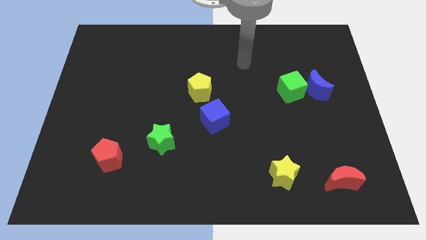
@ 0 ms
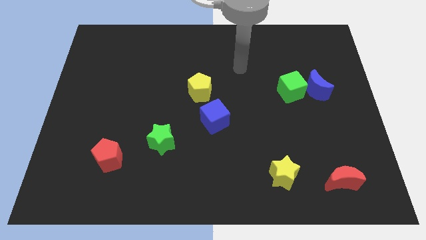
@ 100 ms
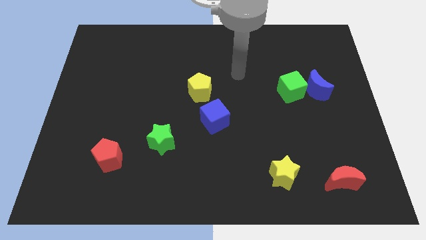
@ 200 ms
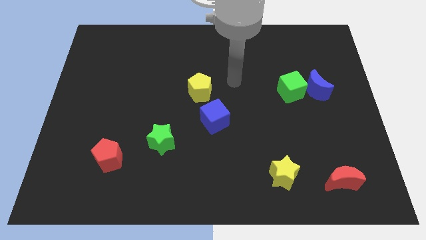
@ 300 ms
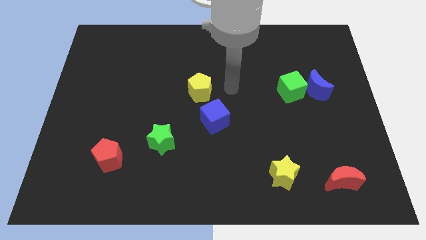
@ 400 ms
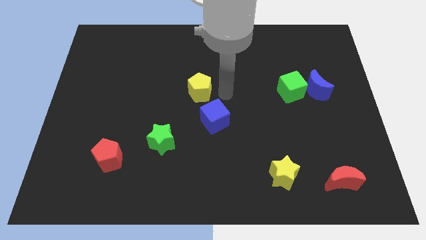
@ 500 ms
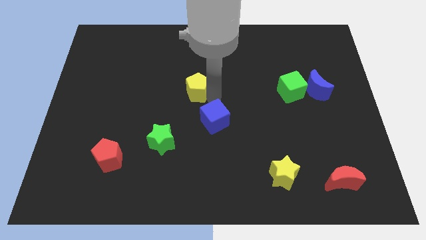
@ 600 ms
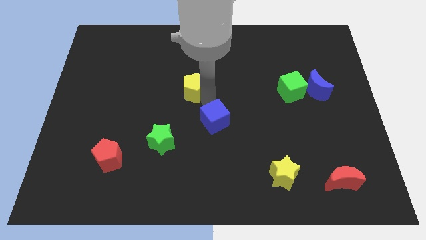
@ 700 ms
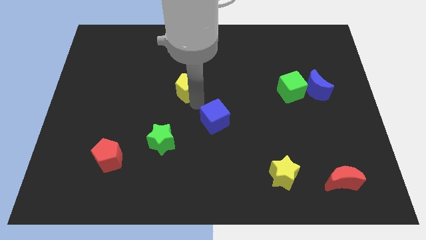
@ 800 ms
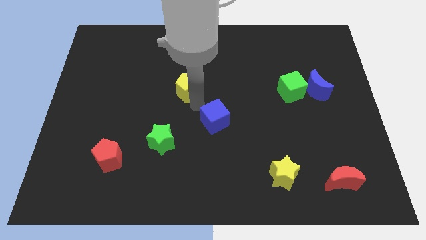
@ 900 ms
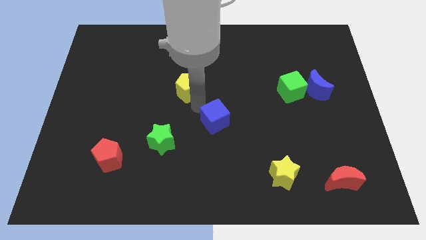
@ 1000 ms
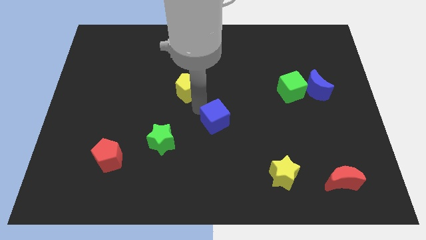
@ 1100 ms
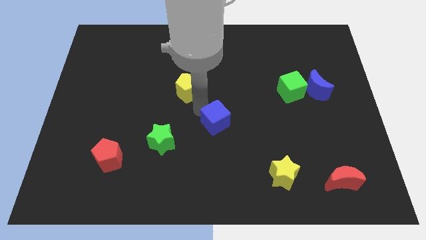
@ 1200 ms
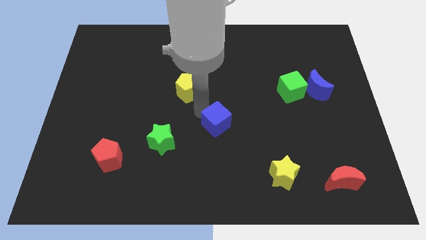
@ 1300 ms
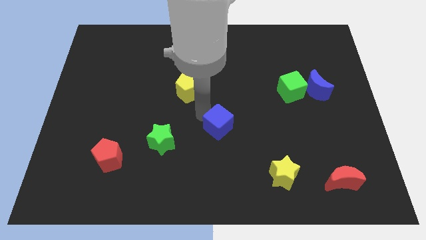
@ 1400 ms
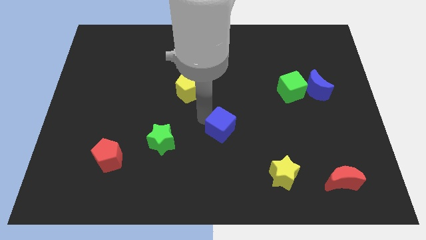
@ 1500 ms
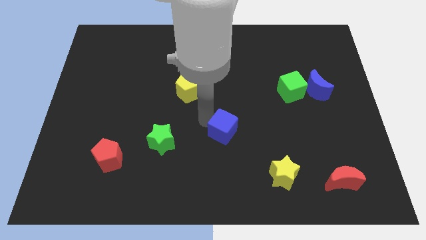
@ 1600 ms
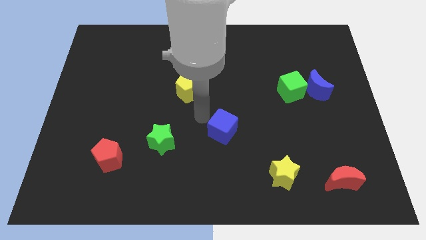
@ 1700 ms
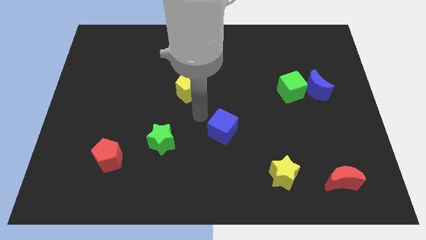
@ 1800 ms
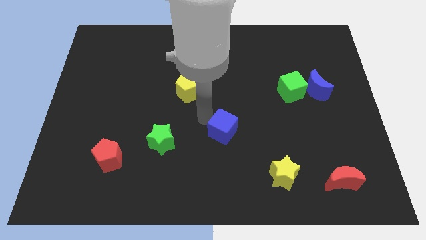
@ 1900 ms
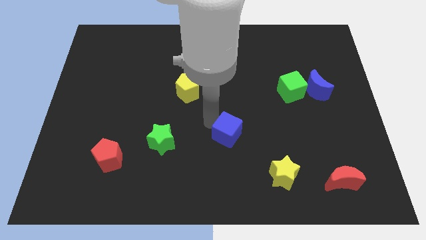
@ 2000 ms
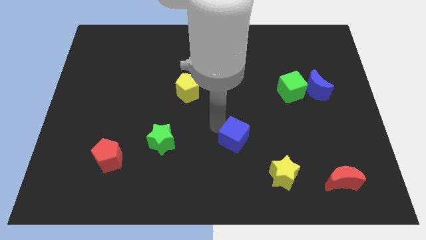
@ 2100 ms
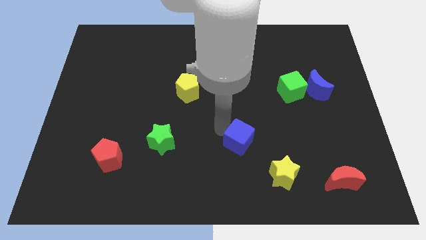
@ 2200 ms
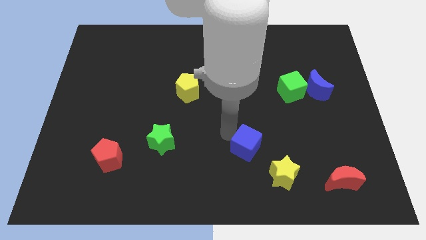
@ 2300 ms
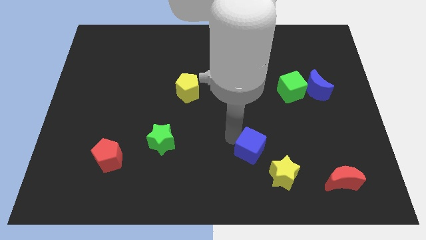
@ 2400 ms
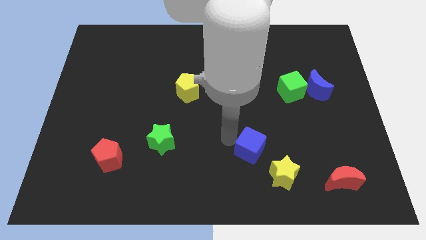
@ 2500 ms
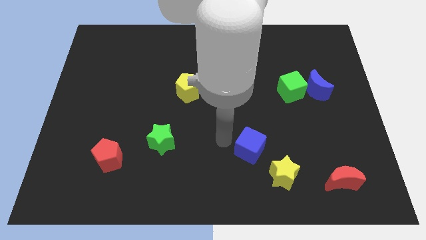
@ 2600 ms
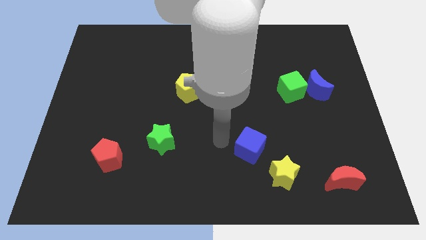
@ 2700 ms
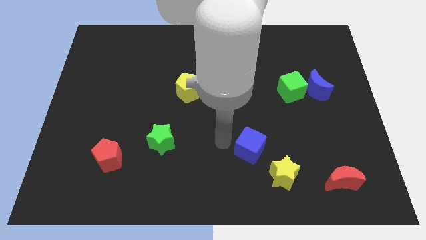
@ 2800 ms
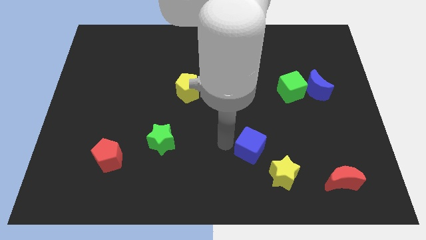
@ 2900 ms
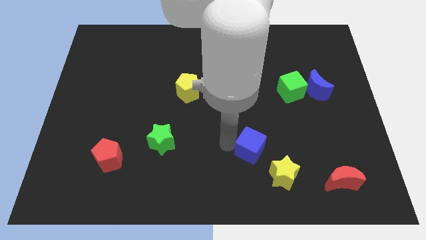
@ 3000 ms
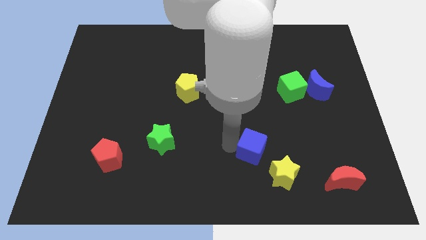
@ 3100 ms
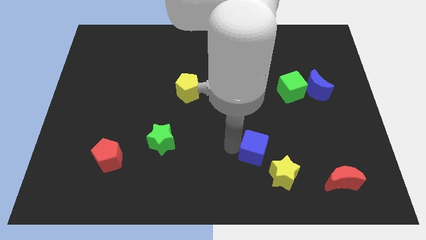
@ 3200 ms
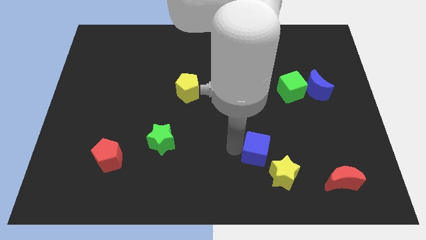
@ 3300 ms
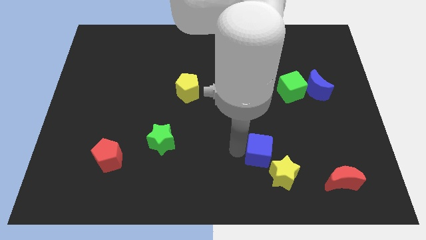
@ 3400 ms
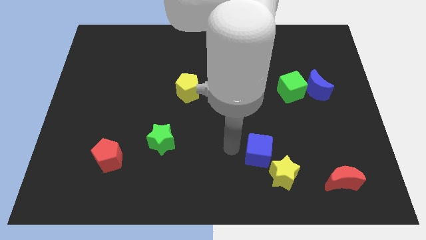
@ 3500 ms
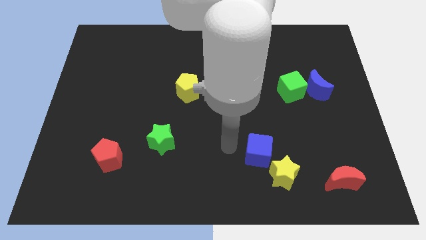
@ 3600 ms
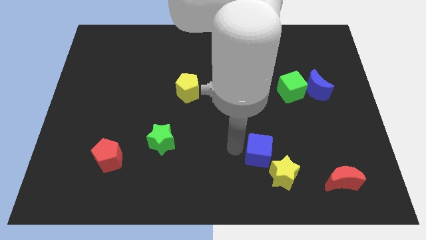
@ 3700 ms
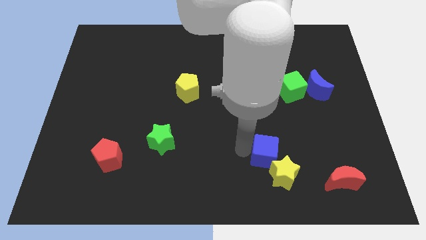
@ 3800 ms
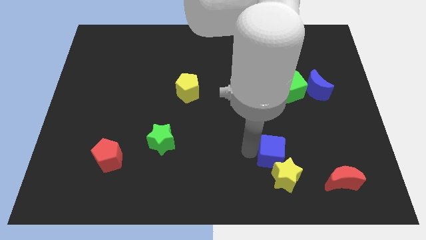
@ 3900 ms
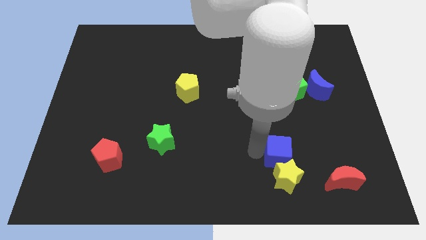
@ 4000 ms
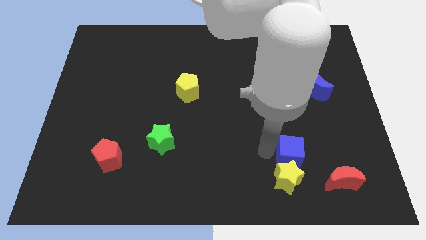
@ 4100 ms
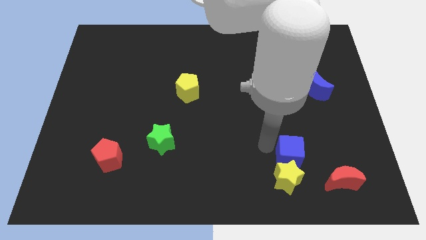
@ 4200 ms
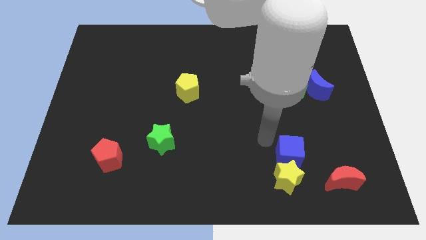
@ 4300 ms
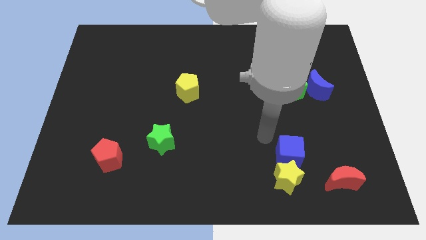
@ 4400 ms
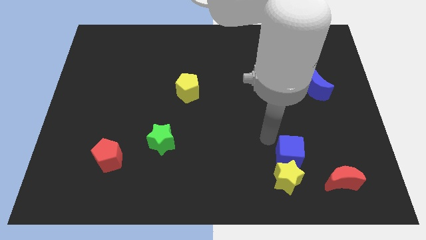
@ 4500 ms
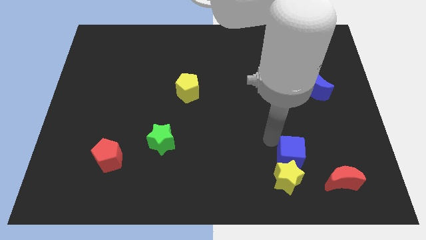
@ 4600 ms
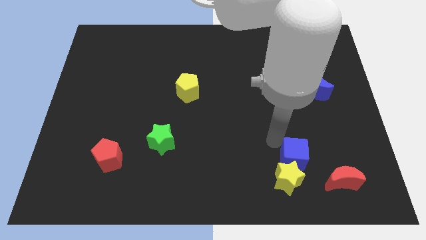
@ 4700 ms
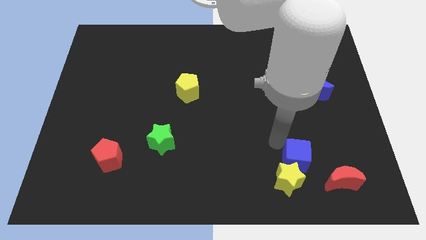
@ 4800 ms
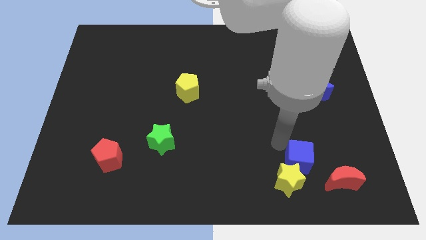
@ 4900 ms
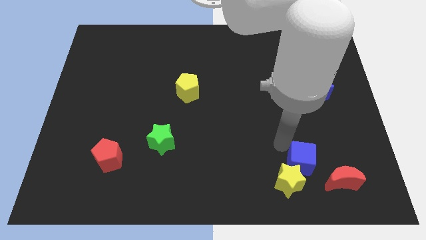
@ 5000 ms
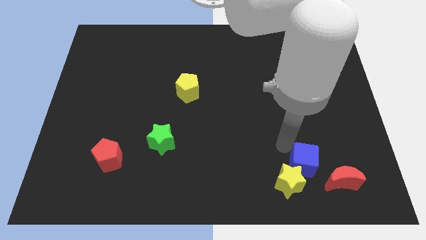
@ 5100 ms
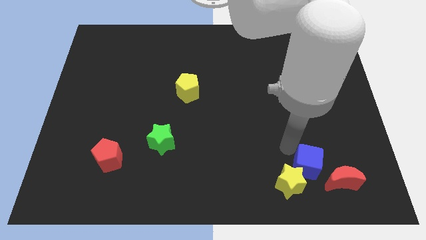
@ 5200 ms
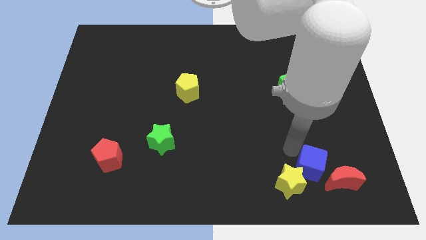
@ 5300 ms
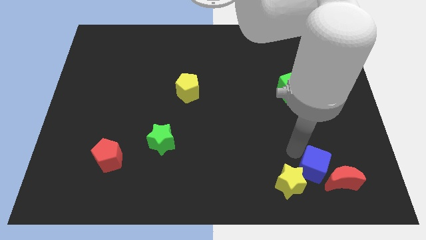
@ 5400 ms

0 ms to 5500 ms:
push the blue cube next to the red moon

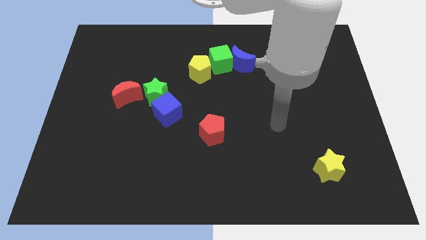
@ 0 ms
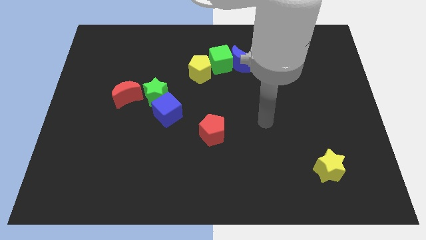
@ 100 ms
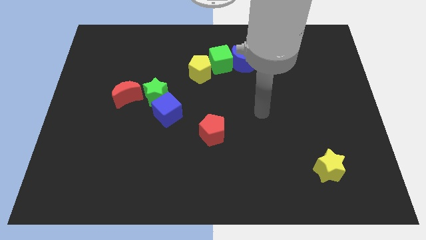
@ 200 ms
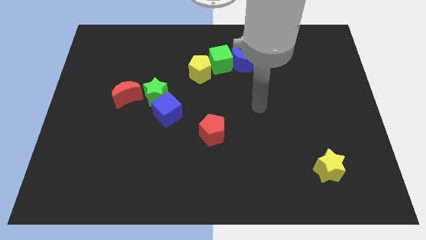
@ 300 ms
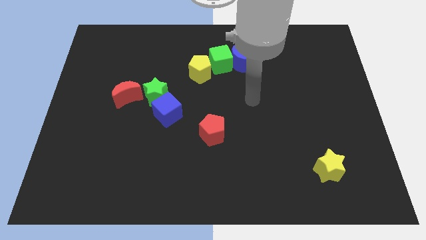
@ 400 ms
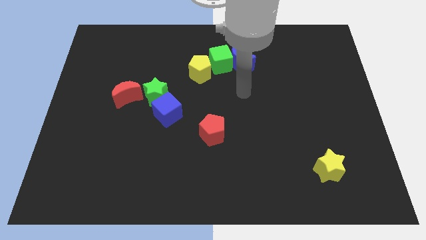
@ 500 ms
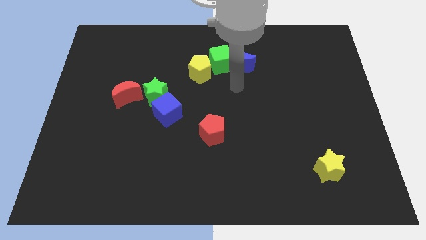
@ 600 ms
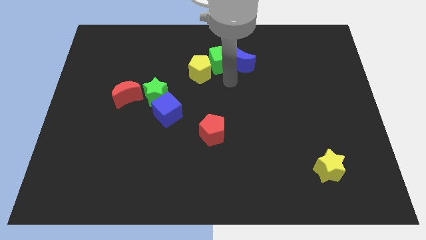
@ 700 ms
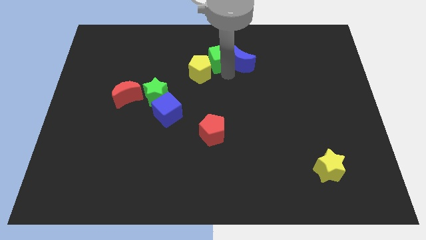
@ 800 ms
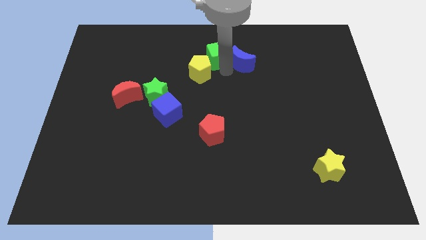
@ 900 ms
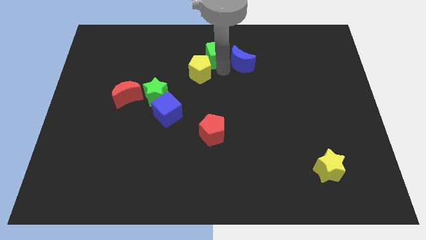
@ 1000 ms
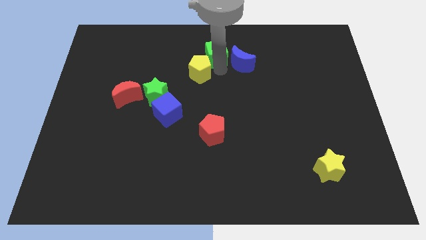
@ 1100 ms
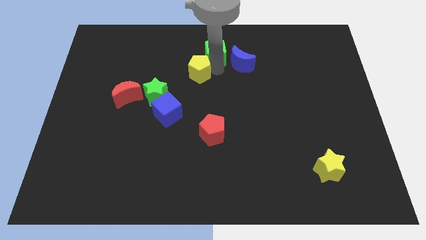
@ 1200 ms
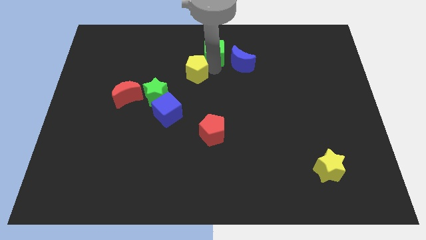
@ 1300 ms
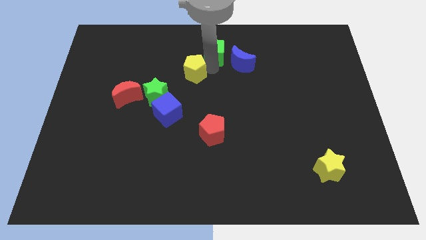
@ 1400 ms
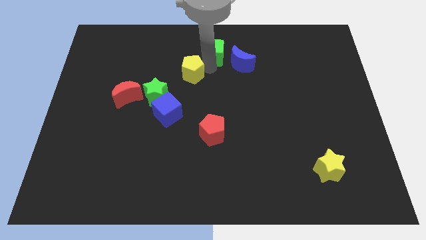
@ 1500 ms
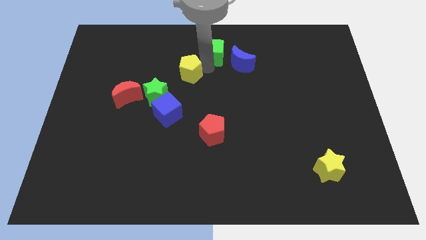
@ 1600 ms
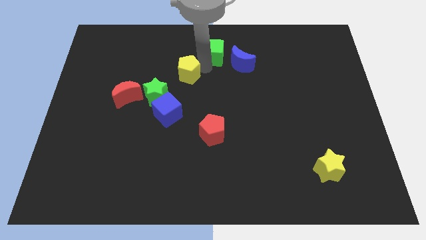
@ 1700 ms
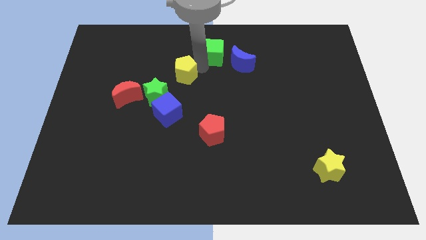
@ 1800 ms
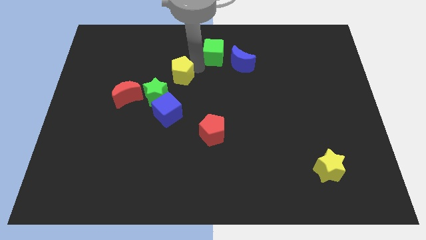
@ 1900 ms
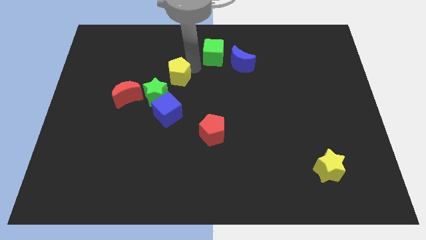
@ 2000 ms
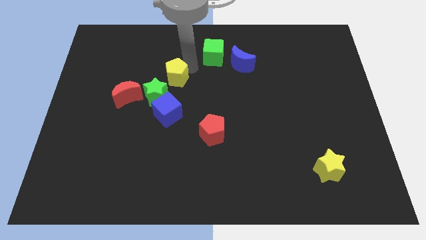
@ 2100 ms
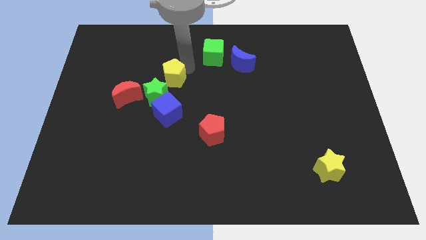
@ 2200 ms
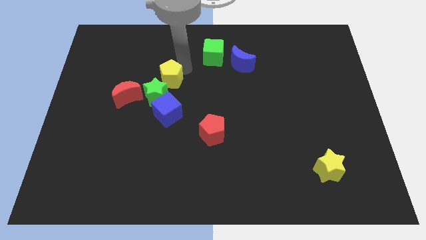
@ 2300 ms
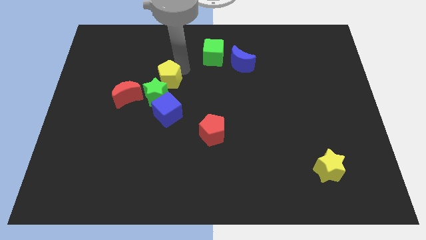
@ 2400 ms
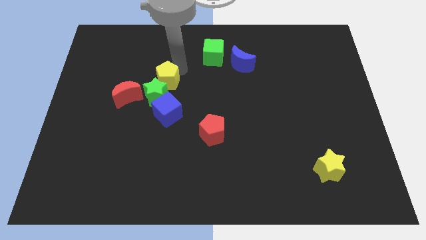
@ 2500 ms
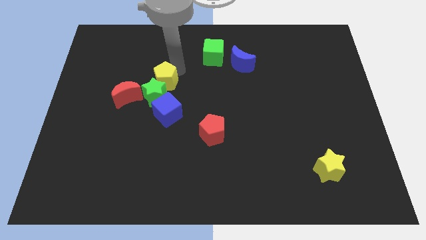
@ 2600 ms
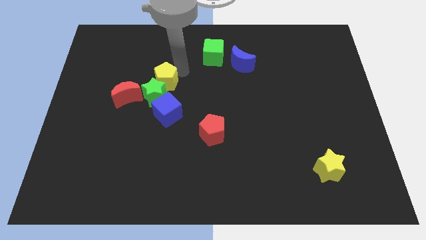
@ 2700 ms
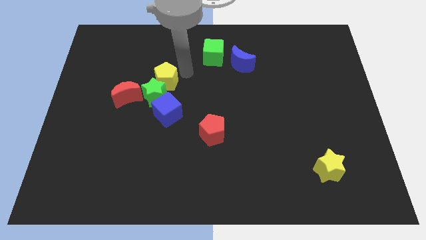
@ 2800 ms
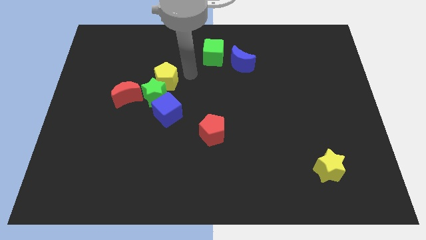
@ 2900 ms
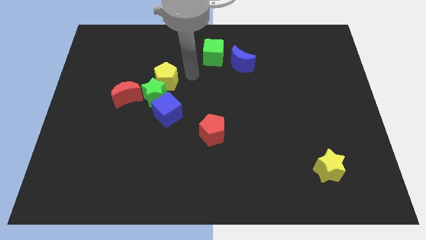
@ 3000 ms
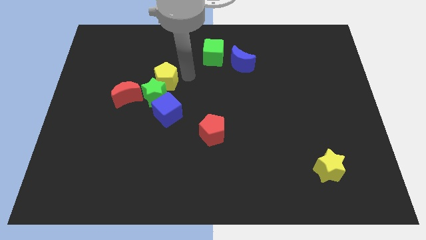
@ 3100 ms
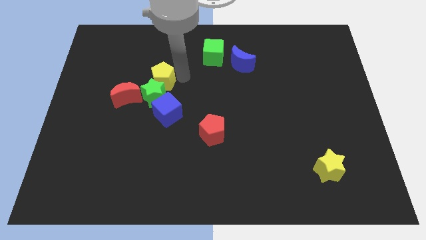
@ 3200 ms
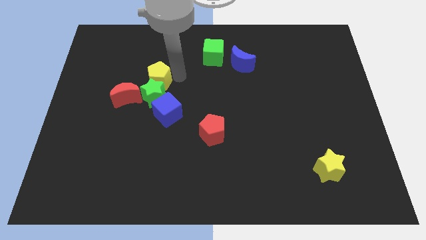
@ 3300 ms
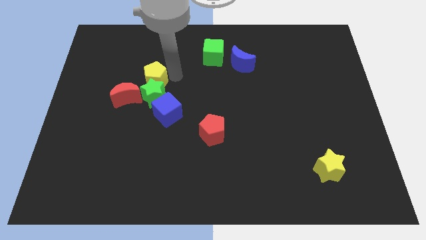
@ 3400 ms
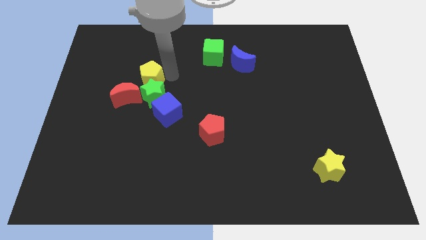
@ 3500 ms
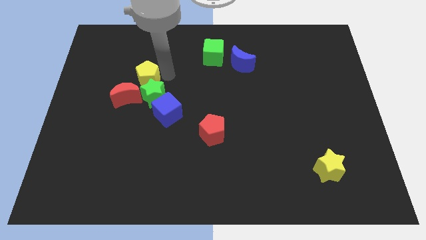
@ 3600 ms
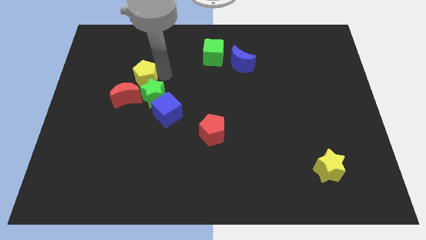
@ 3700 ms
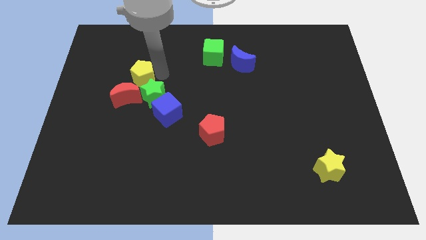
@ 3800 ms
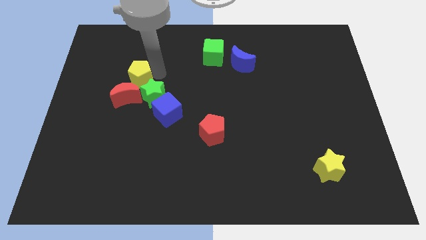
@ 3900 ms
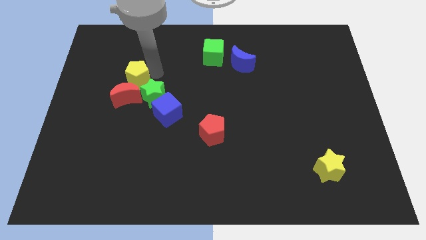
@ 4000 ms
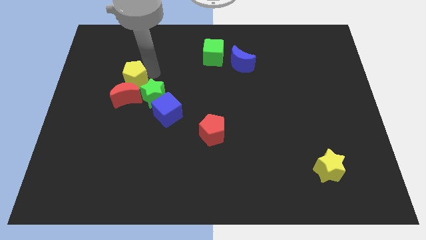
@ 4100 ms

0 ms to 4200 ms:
slide the yellow pentagon next to the red moon
